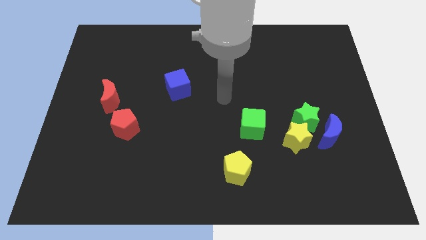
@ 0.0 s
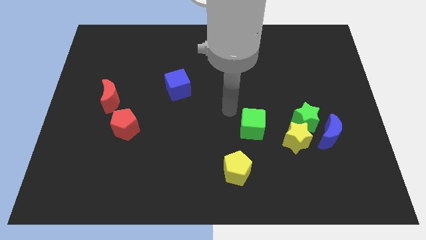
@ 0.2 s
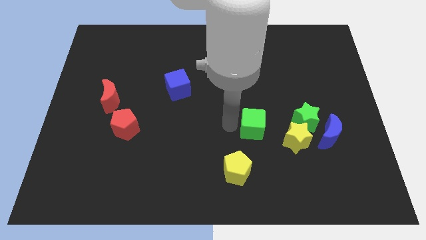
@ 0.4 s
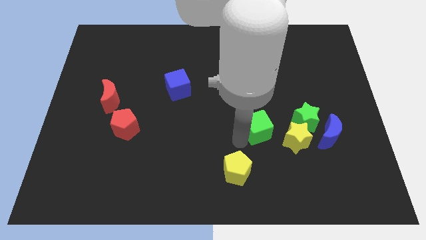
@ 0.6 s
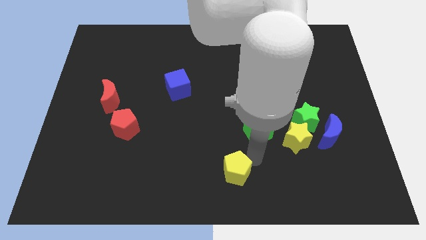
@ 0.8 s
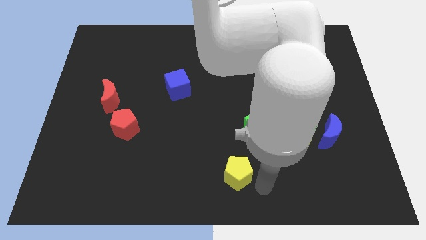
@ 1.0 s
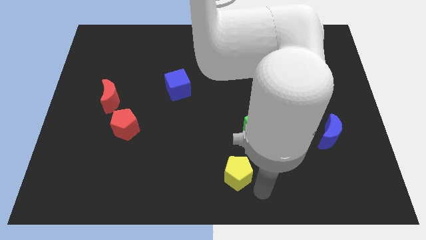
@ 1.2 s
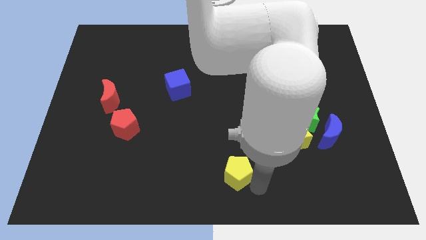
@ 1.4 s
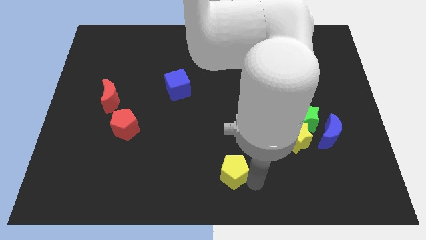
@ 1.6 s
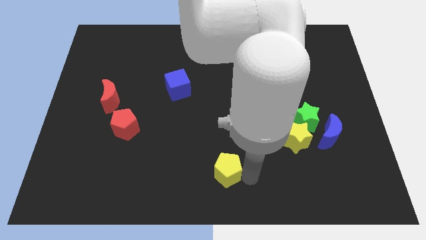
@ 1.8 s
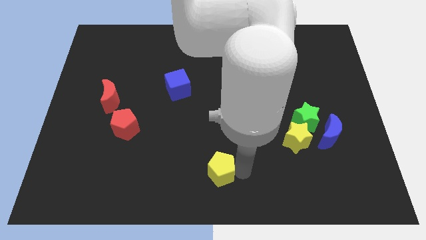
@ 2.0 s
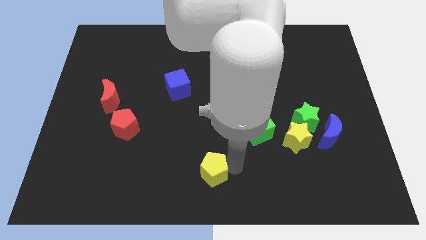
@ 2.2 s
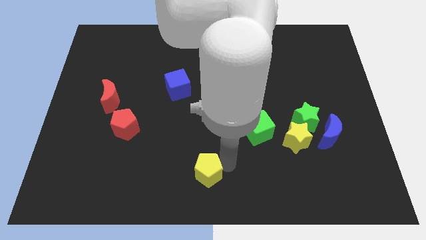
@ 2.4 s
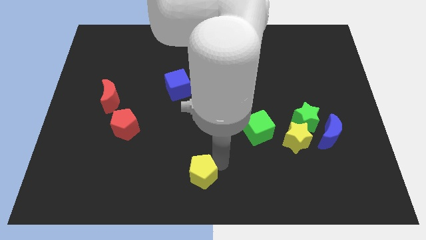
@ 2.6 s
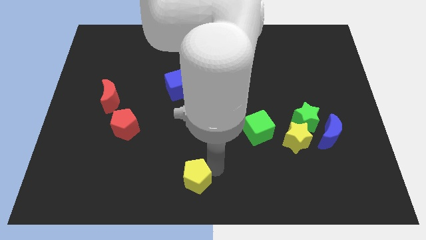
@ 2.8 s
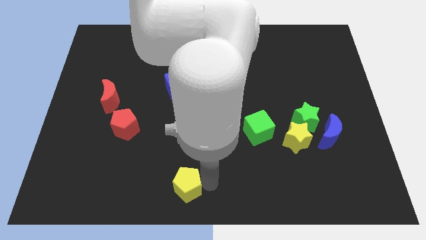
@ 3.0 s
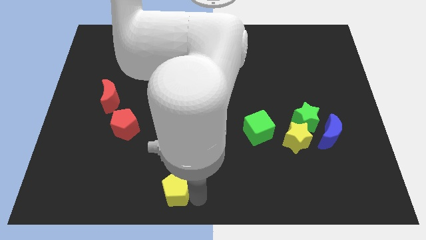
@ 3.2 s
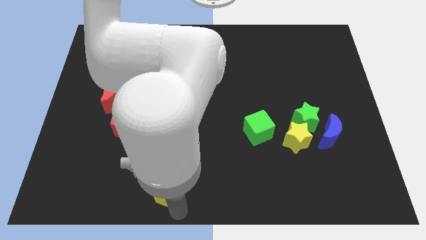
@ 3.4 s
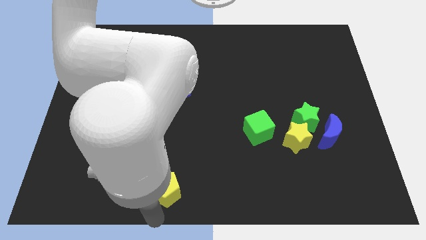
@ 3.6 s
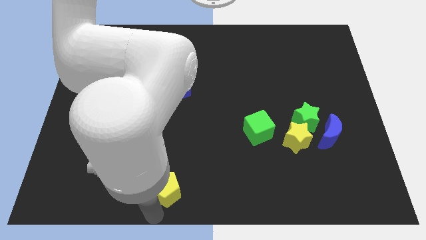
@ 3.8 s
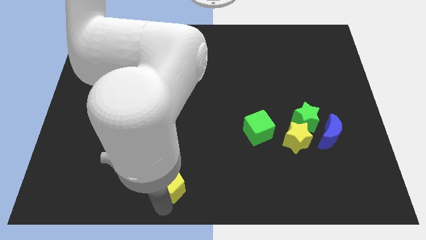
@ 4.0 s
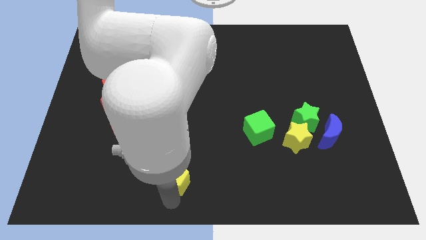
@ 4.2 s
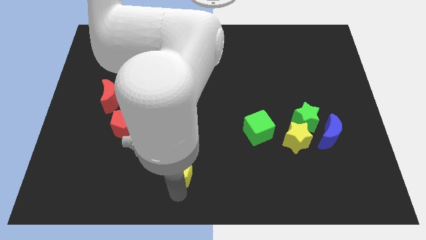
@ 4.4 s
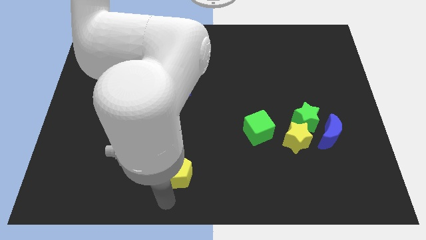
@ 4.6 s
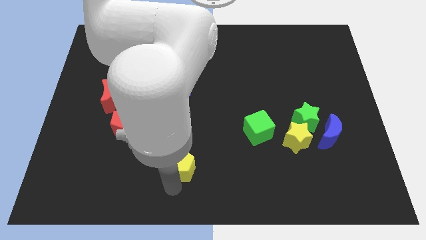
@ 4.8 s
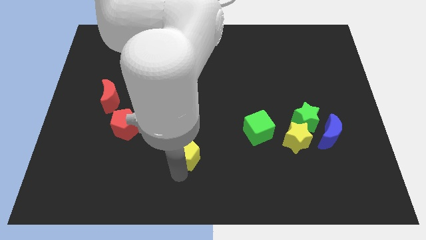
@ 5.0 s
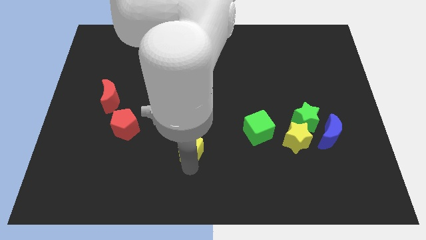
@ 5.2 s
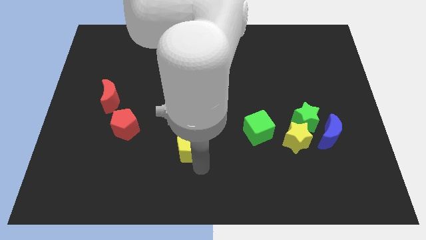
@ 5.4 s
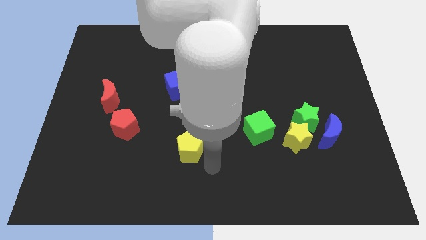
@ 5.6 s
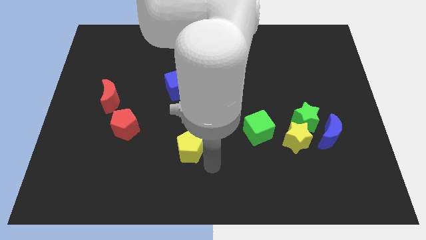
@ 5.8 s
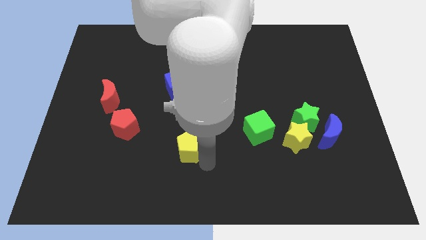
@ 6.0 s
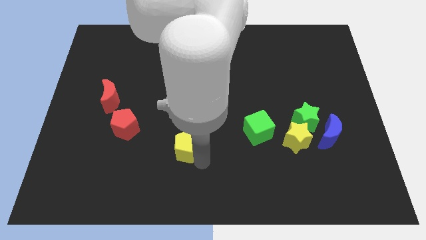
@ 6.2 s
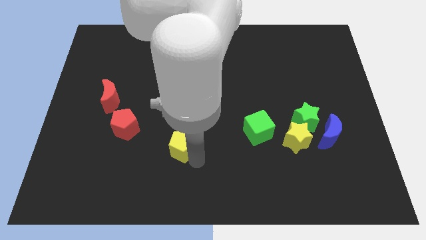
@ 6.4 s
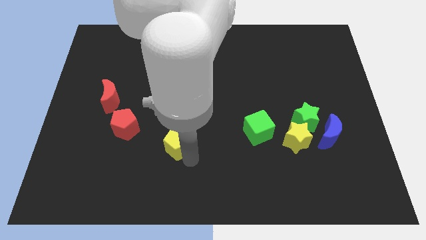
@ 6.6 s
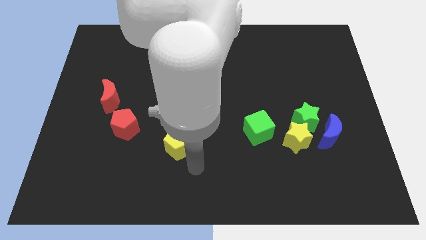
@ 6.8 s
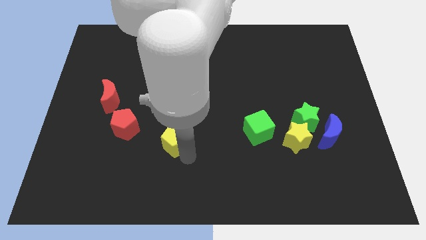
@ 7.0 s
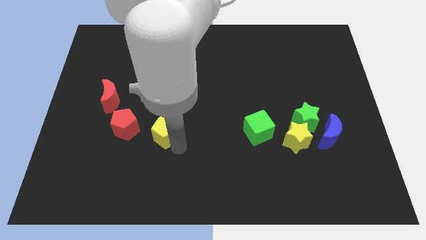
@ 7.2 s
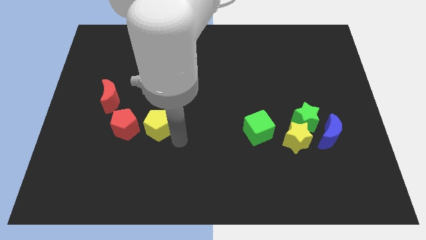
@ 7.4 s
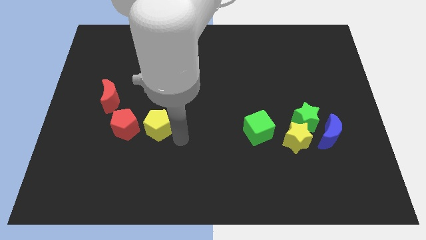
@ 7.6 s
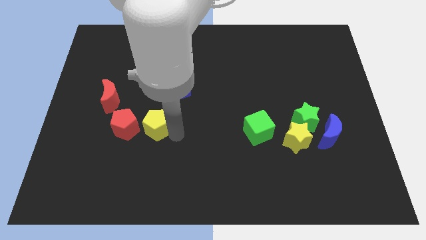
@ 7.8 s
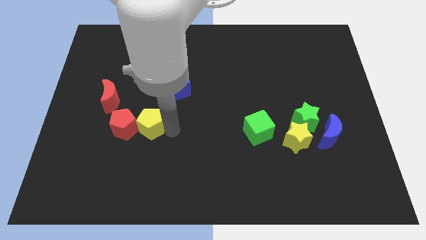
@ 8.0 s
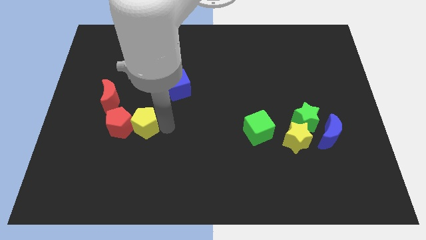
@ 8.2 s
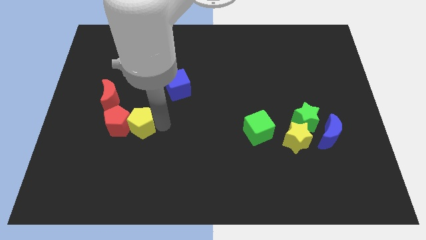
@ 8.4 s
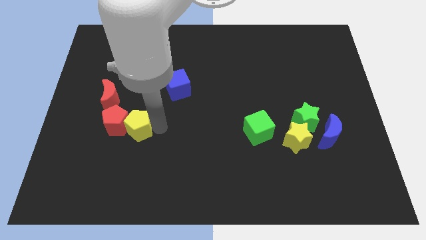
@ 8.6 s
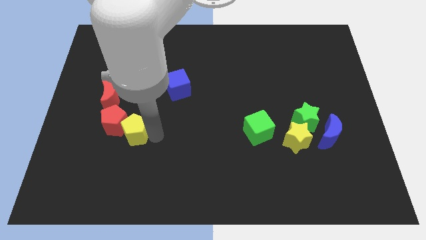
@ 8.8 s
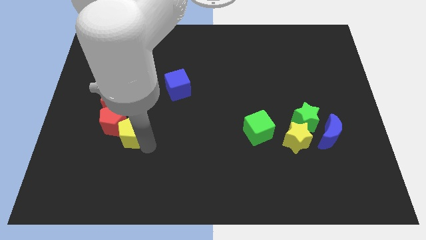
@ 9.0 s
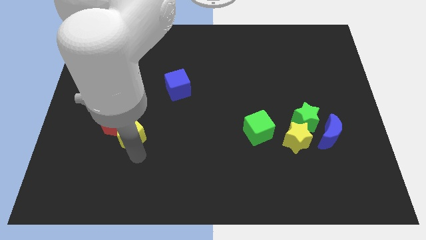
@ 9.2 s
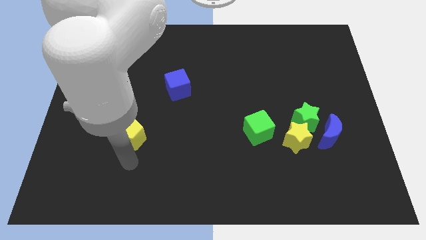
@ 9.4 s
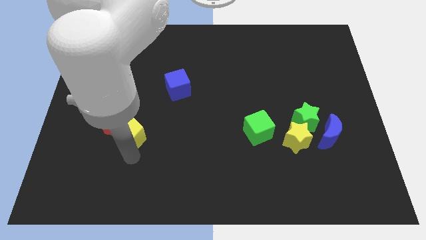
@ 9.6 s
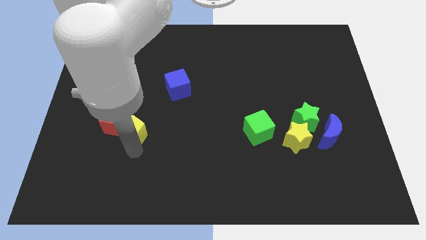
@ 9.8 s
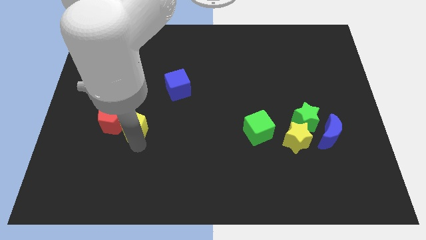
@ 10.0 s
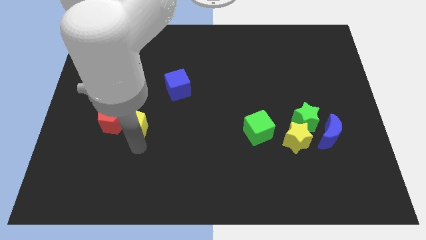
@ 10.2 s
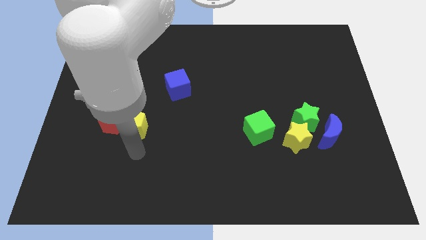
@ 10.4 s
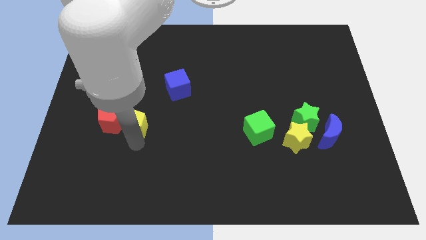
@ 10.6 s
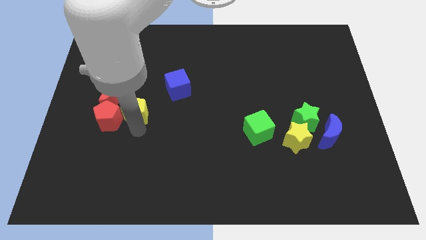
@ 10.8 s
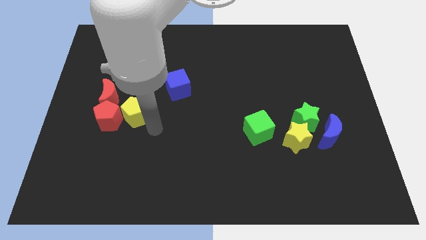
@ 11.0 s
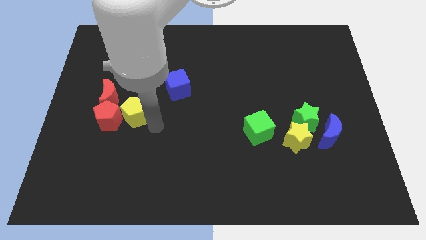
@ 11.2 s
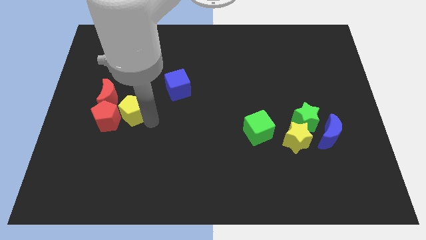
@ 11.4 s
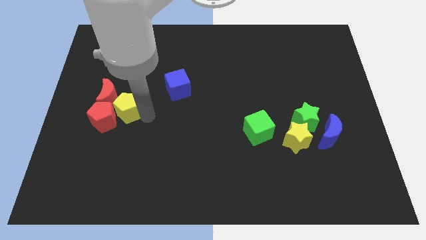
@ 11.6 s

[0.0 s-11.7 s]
put the yellow pentagon close to the red moon

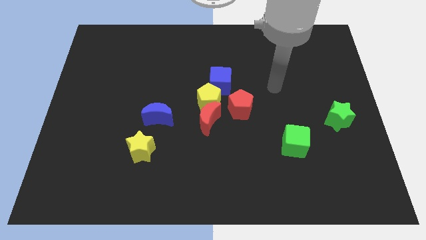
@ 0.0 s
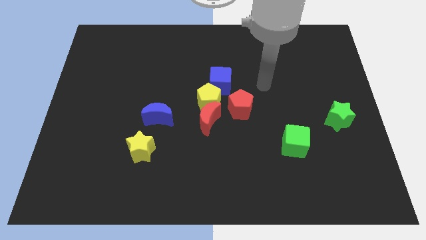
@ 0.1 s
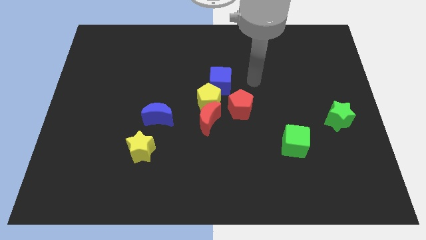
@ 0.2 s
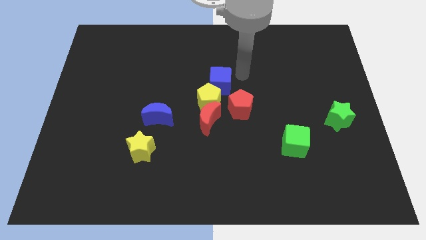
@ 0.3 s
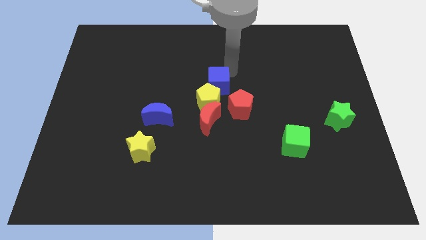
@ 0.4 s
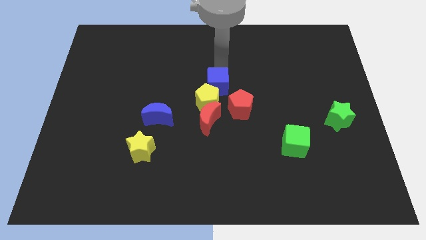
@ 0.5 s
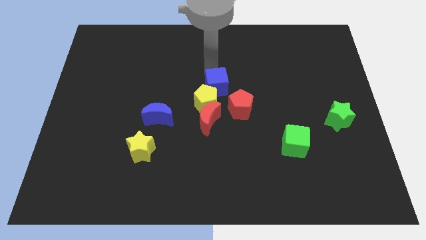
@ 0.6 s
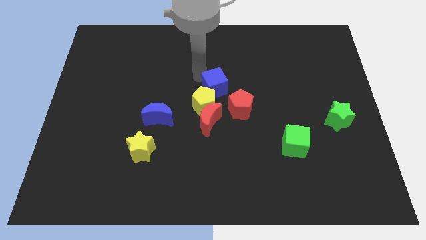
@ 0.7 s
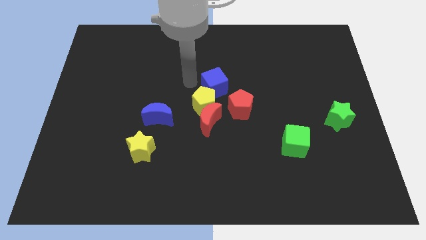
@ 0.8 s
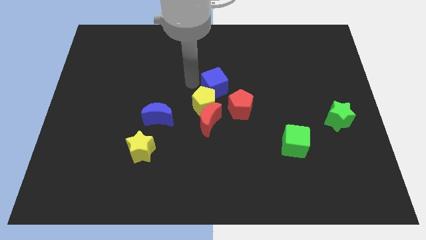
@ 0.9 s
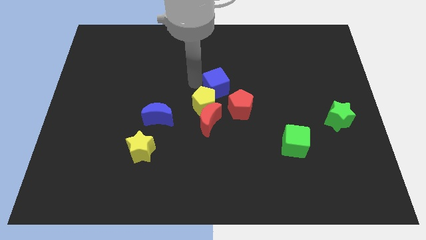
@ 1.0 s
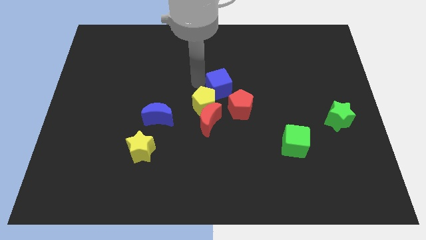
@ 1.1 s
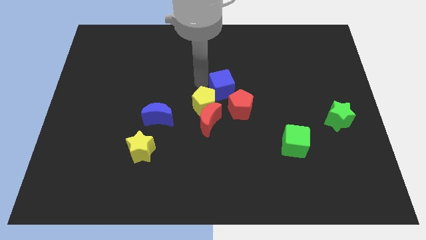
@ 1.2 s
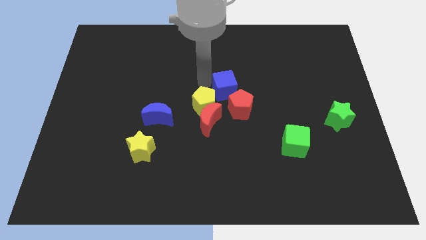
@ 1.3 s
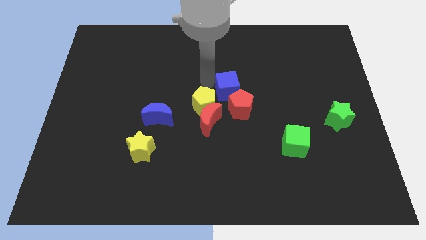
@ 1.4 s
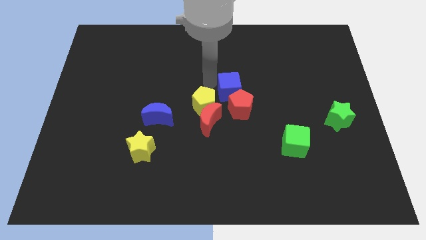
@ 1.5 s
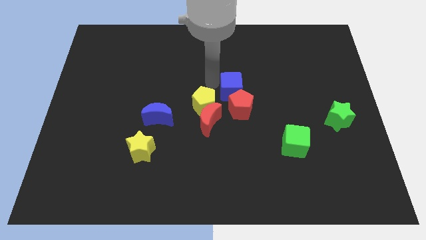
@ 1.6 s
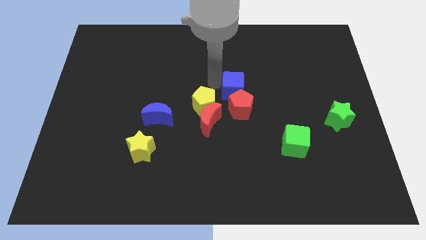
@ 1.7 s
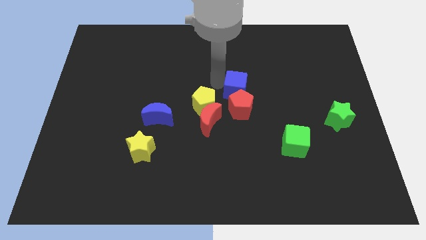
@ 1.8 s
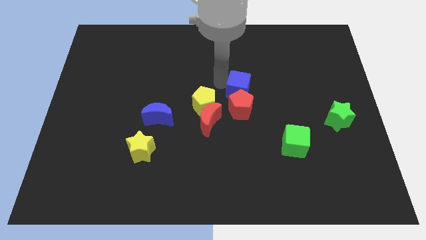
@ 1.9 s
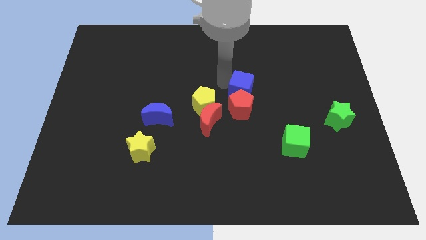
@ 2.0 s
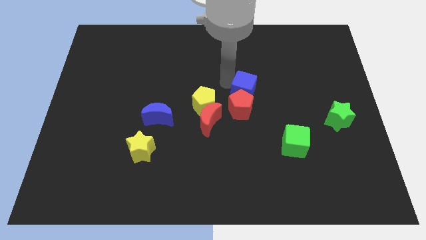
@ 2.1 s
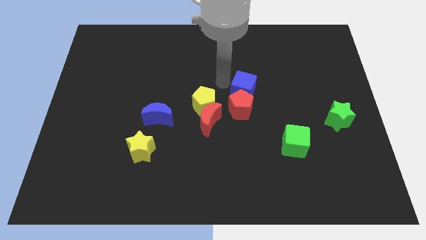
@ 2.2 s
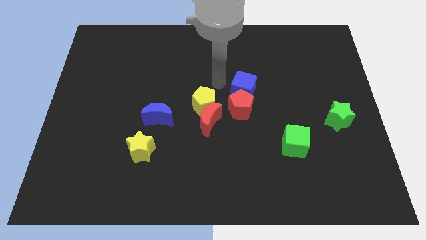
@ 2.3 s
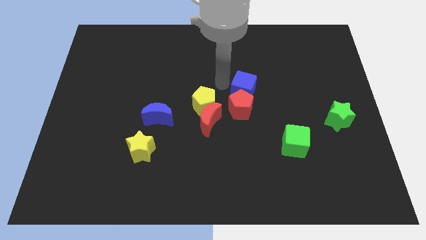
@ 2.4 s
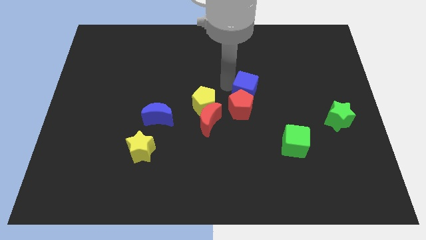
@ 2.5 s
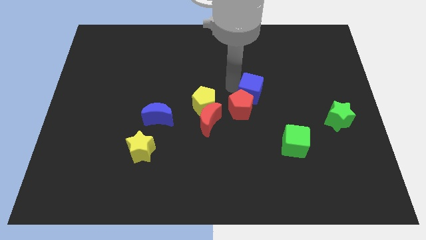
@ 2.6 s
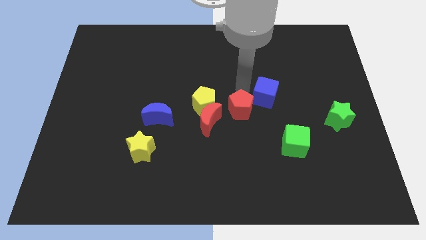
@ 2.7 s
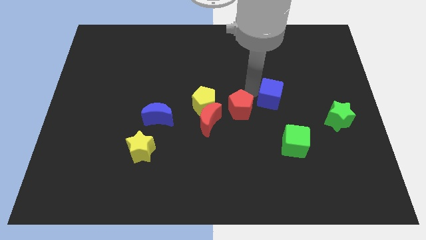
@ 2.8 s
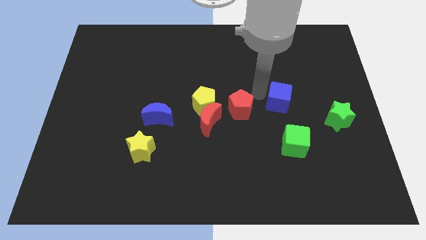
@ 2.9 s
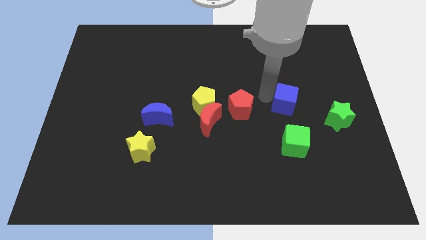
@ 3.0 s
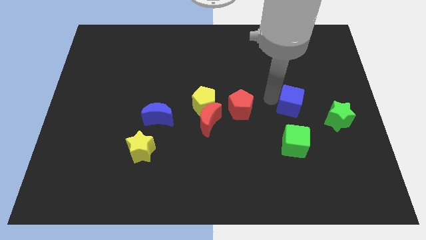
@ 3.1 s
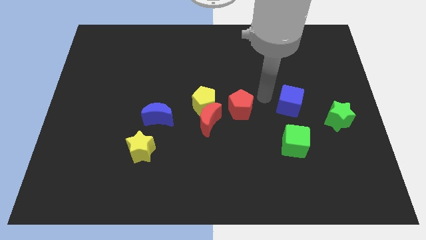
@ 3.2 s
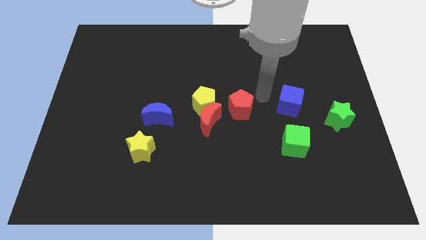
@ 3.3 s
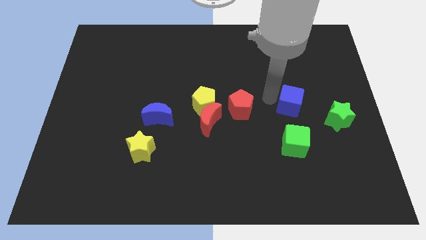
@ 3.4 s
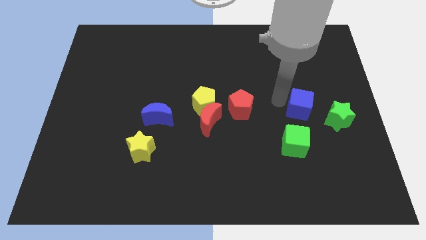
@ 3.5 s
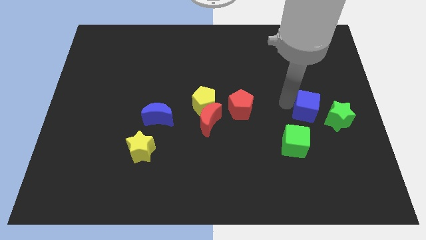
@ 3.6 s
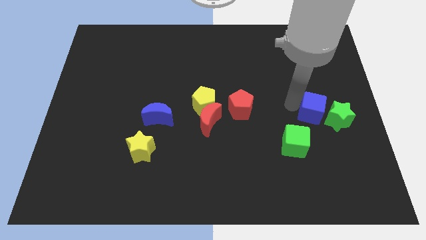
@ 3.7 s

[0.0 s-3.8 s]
push the blue cube to the green star
